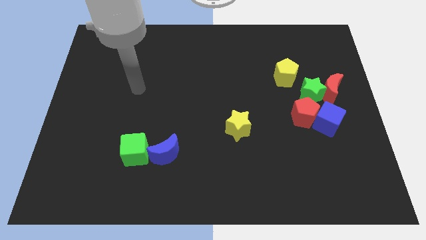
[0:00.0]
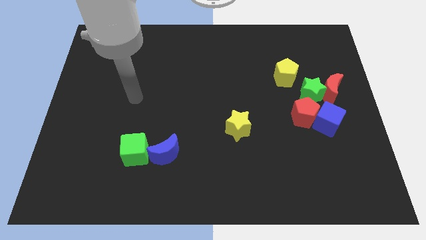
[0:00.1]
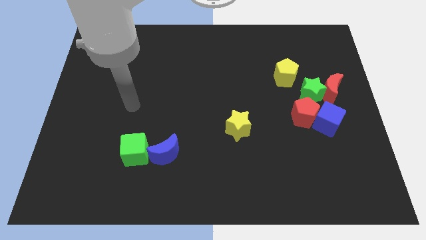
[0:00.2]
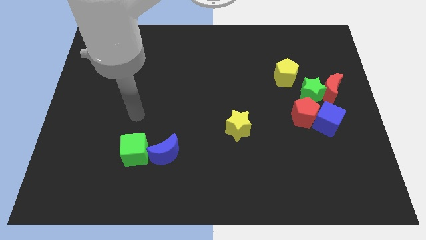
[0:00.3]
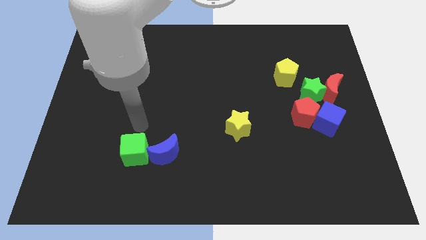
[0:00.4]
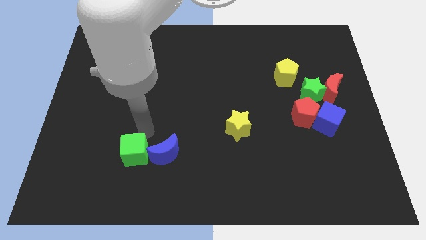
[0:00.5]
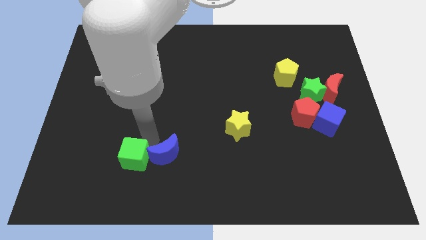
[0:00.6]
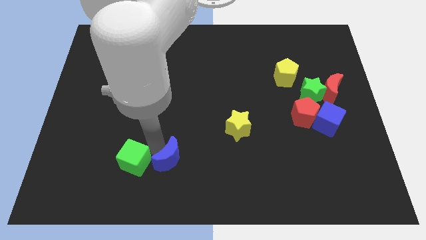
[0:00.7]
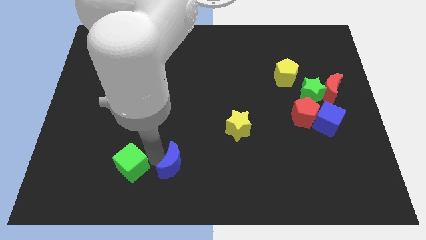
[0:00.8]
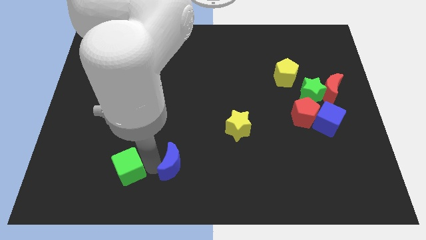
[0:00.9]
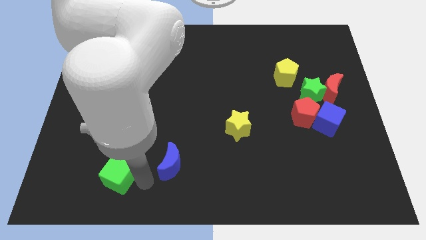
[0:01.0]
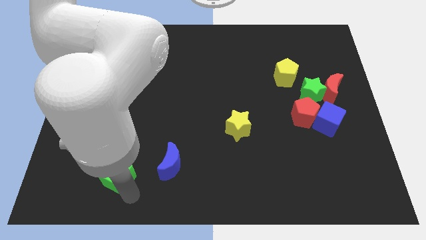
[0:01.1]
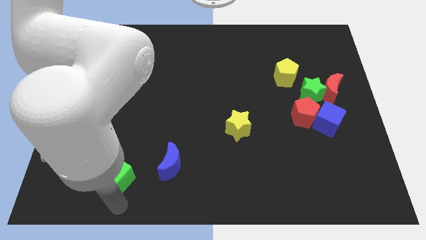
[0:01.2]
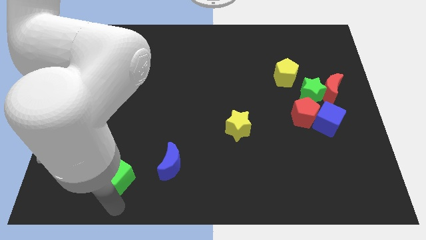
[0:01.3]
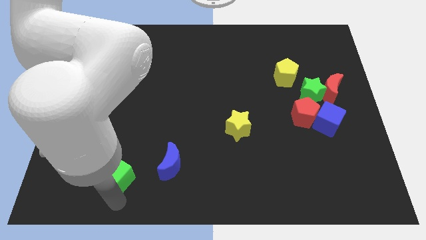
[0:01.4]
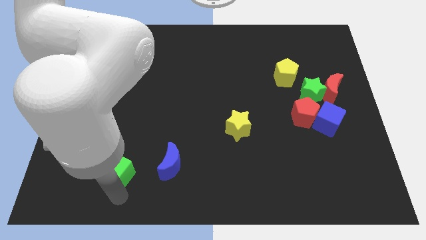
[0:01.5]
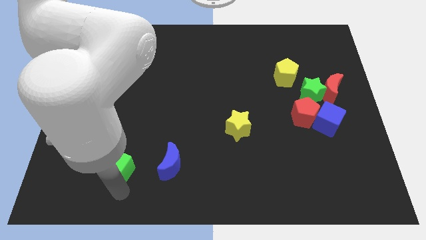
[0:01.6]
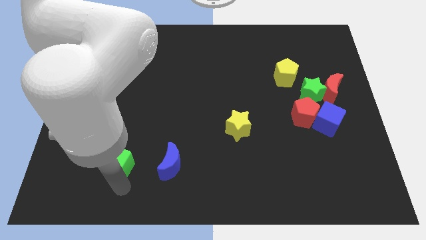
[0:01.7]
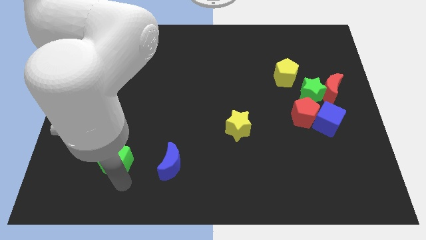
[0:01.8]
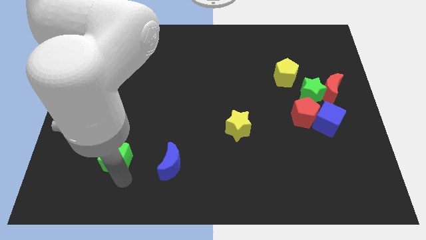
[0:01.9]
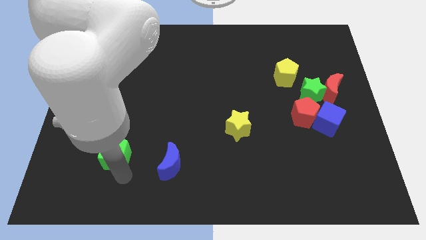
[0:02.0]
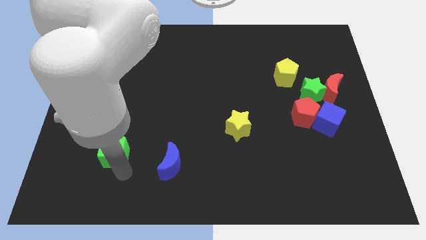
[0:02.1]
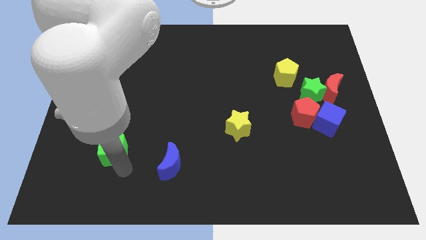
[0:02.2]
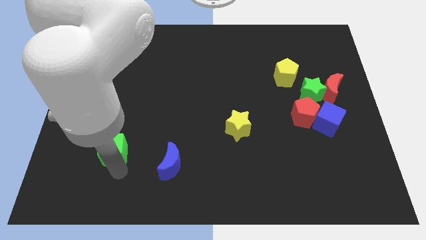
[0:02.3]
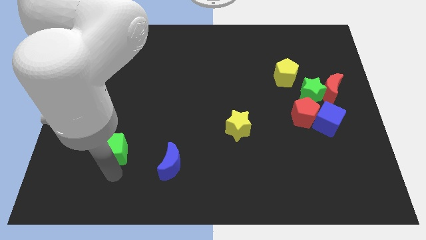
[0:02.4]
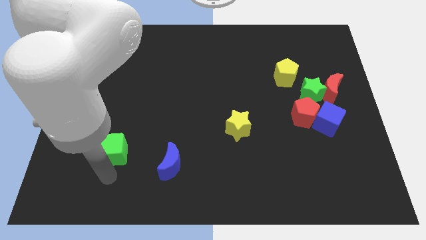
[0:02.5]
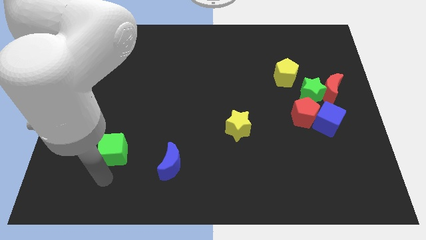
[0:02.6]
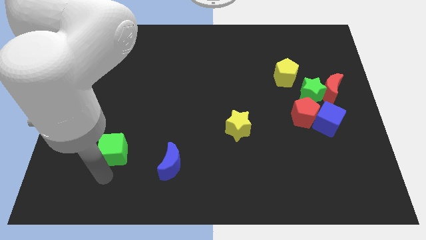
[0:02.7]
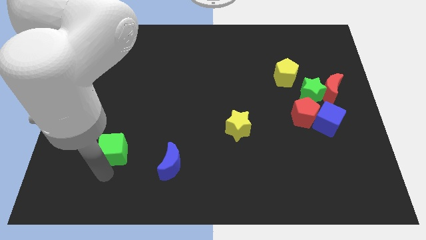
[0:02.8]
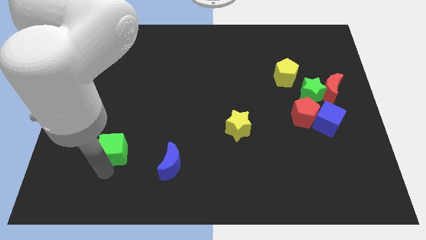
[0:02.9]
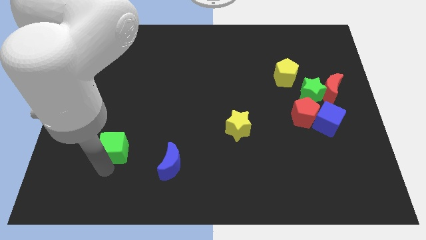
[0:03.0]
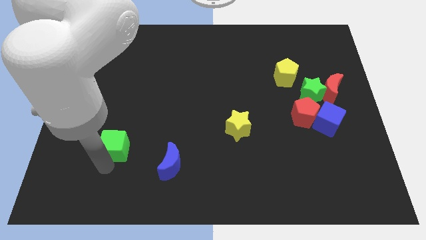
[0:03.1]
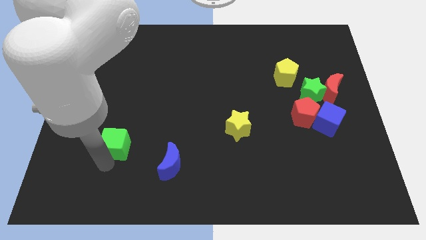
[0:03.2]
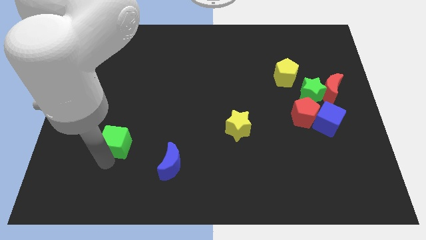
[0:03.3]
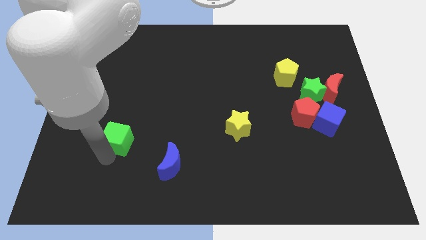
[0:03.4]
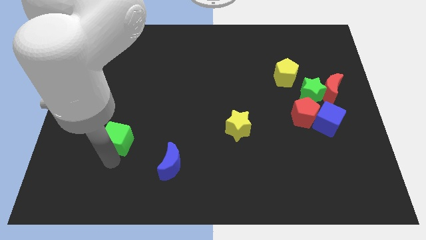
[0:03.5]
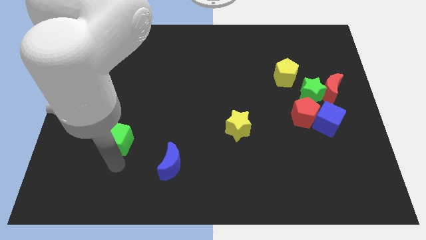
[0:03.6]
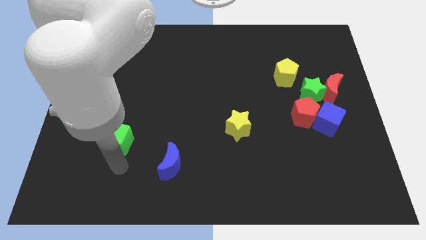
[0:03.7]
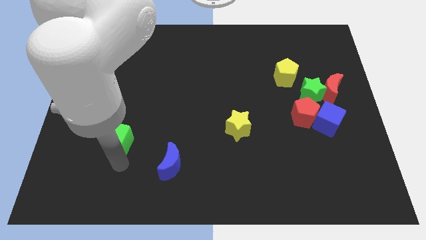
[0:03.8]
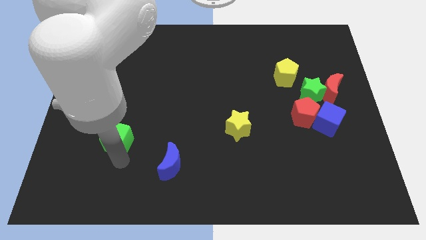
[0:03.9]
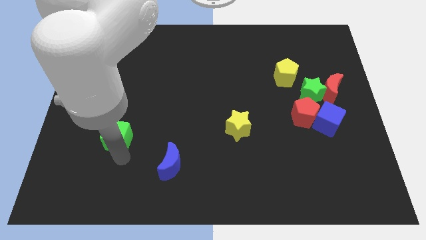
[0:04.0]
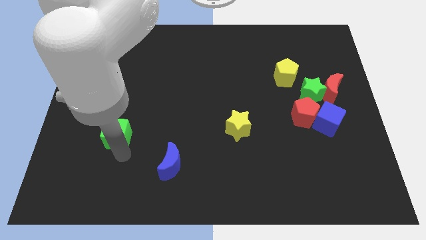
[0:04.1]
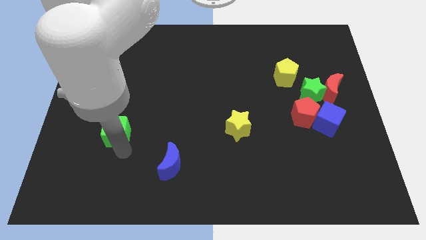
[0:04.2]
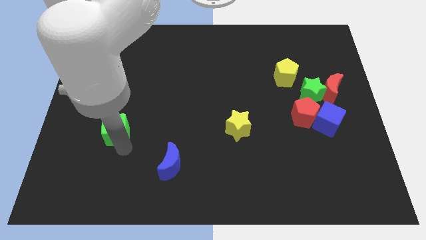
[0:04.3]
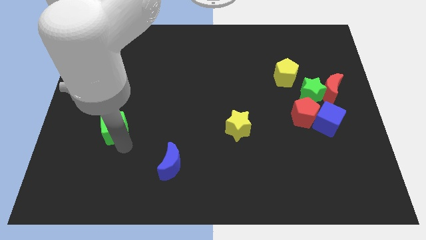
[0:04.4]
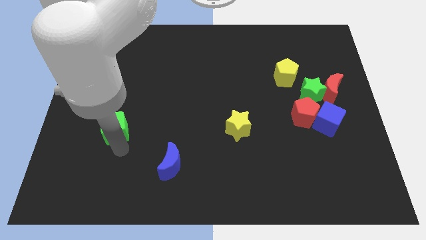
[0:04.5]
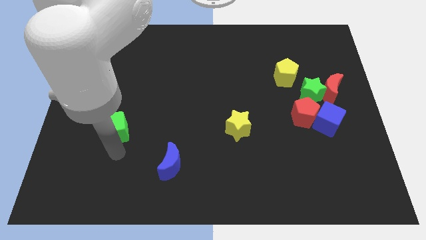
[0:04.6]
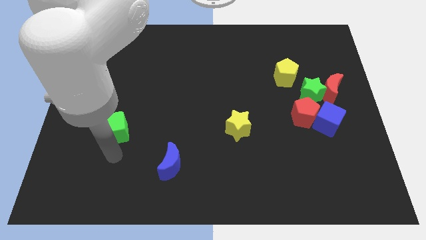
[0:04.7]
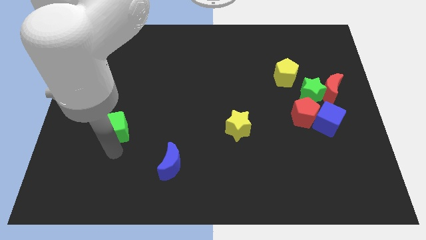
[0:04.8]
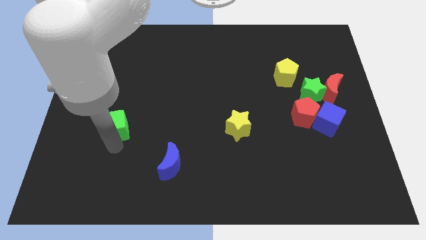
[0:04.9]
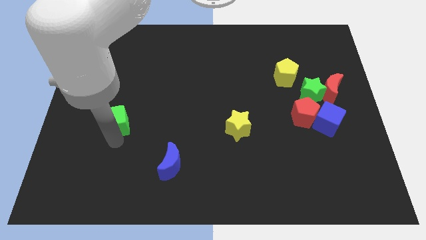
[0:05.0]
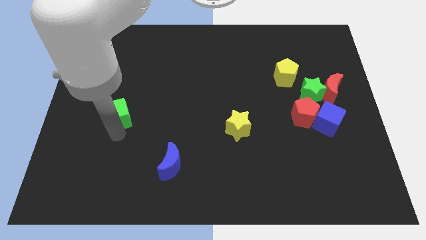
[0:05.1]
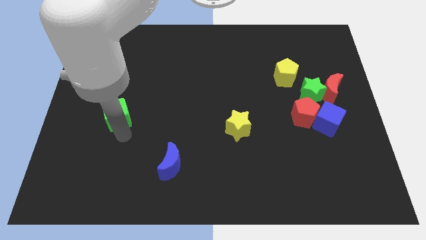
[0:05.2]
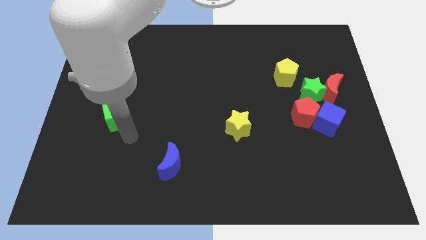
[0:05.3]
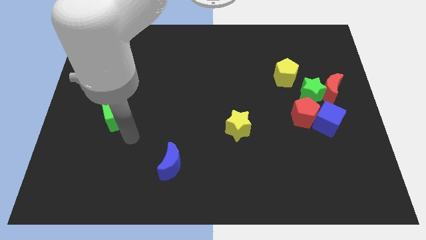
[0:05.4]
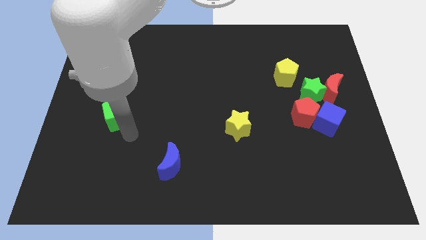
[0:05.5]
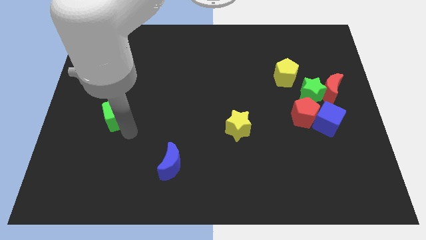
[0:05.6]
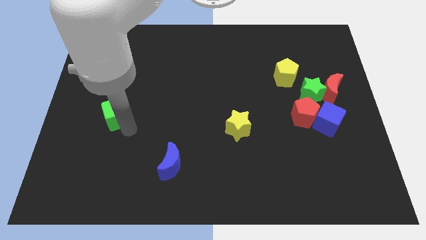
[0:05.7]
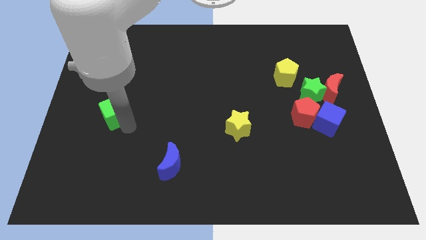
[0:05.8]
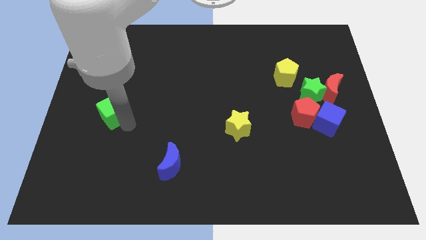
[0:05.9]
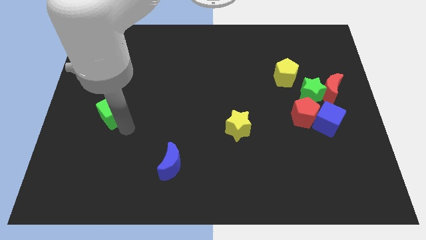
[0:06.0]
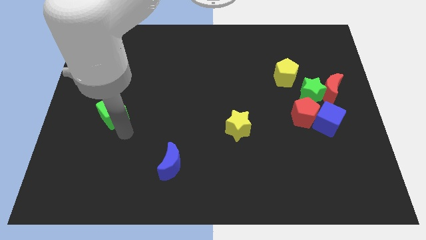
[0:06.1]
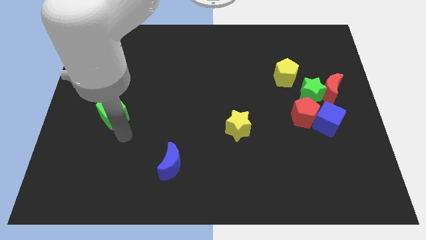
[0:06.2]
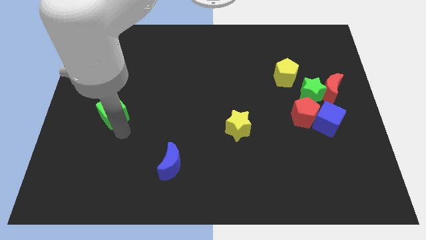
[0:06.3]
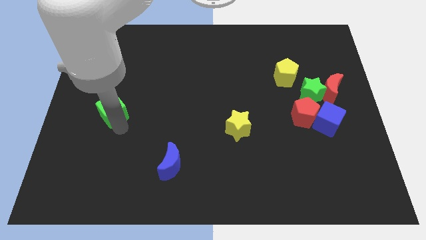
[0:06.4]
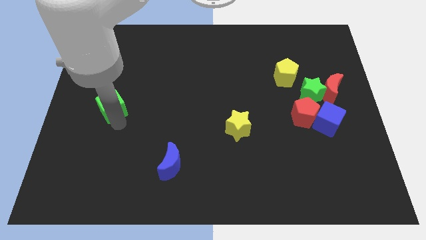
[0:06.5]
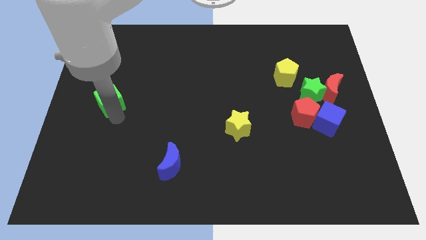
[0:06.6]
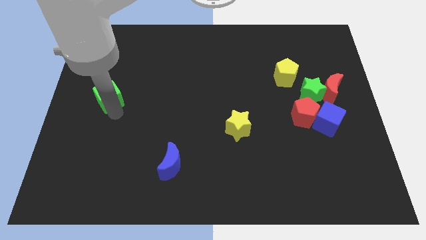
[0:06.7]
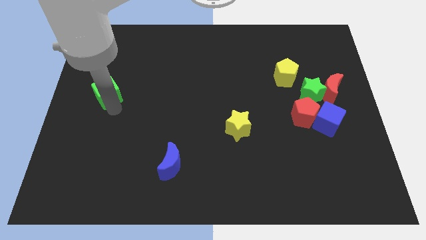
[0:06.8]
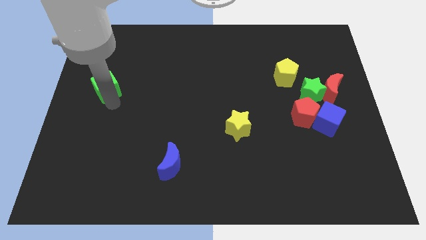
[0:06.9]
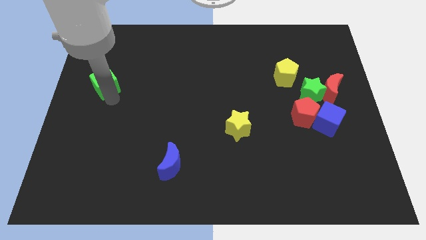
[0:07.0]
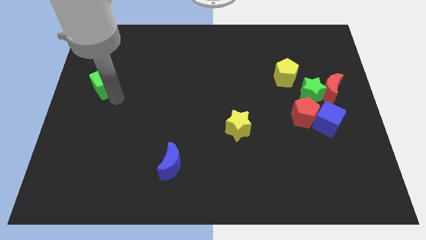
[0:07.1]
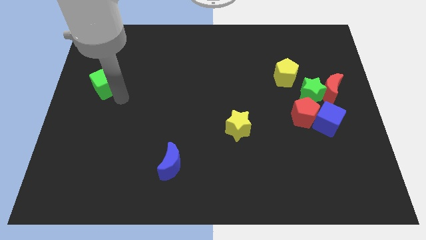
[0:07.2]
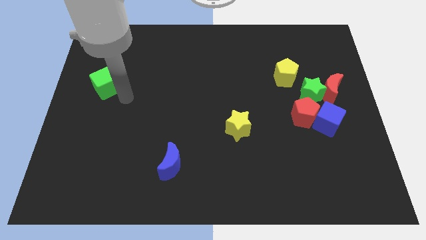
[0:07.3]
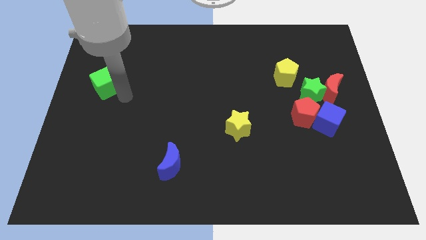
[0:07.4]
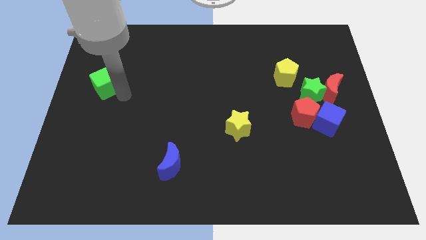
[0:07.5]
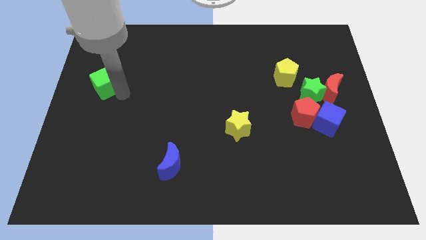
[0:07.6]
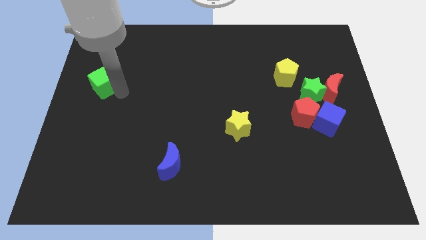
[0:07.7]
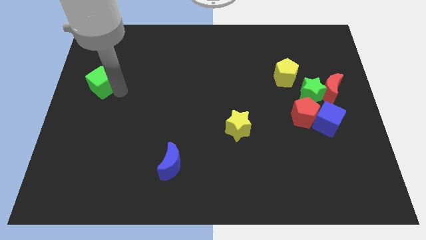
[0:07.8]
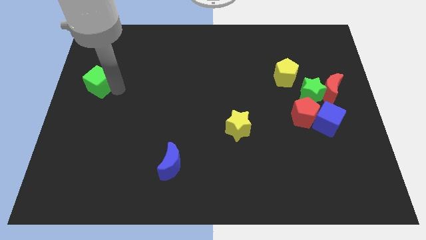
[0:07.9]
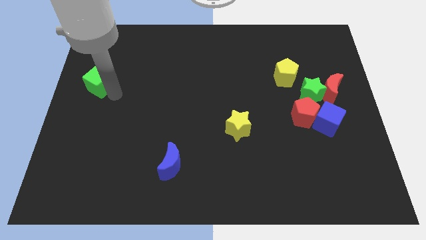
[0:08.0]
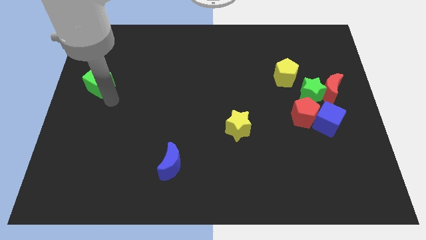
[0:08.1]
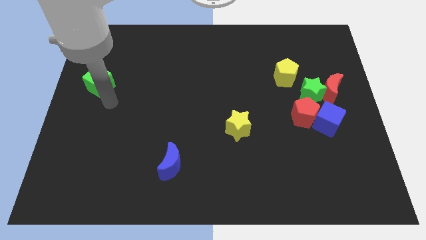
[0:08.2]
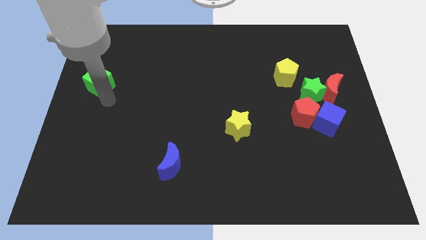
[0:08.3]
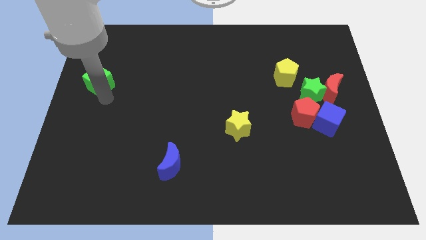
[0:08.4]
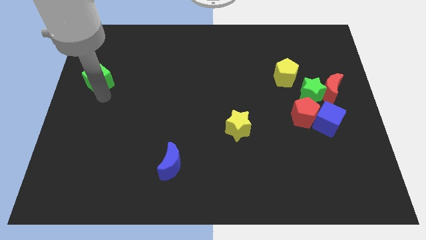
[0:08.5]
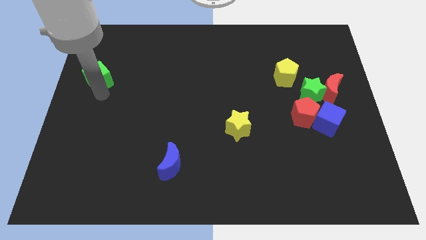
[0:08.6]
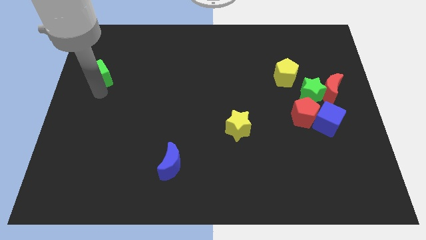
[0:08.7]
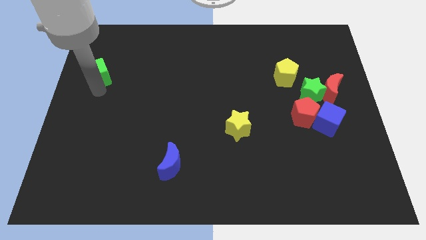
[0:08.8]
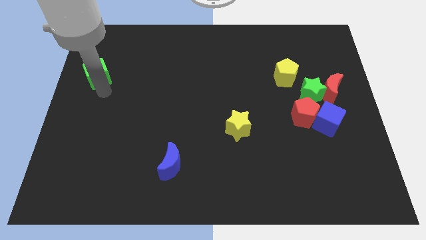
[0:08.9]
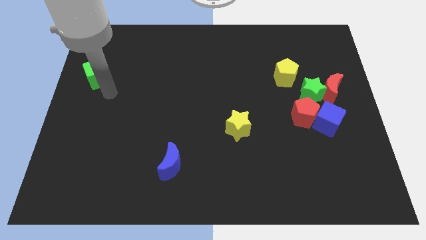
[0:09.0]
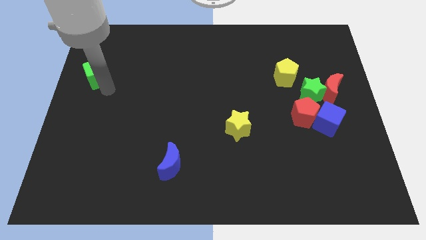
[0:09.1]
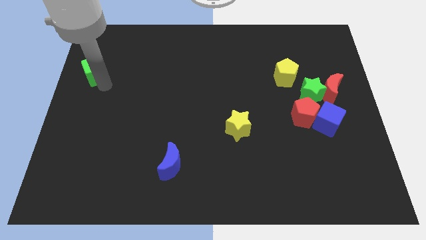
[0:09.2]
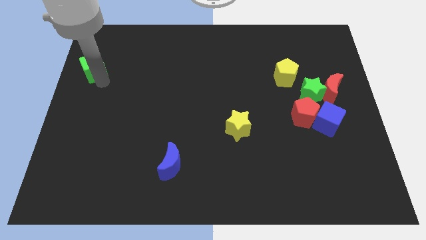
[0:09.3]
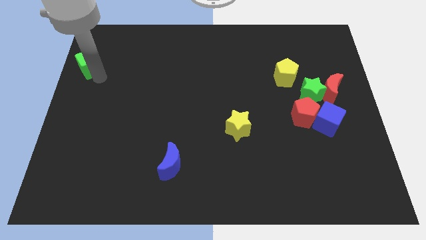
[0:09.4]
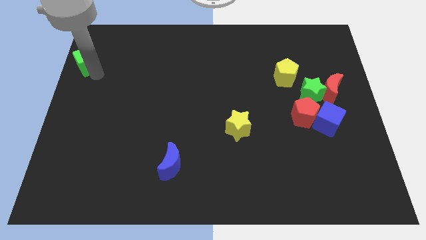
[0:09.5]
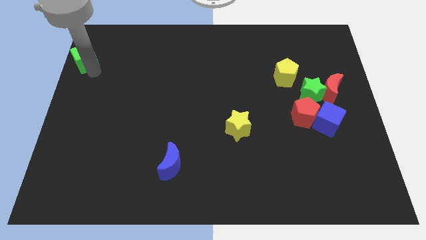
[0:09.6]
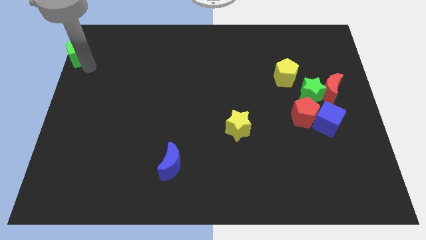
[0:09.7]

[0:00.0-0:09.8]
push the green cube to the top left corner
